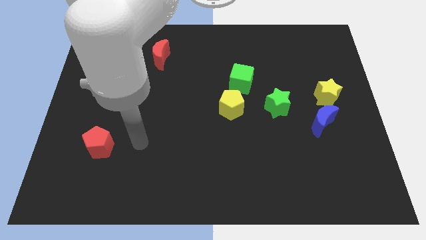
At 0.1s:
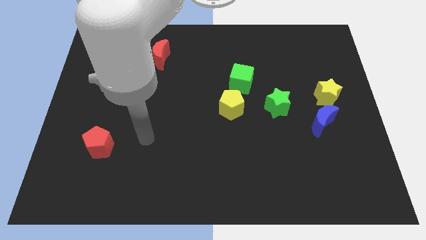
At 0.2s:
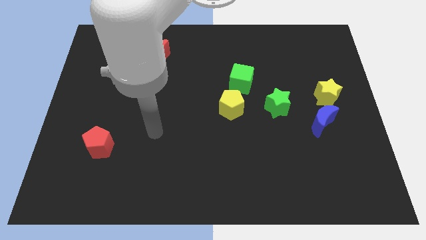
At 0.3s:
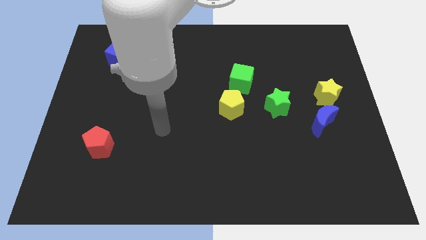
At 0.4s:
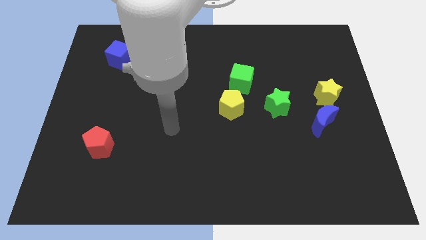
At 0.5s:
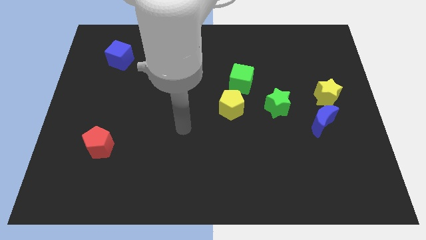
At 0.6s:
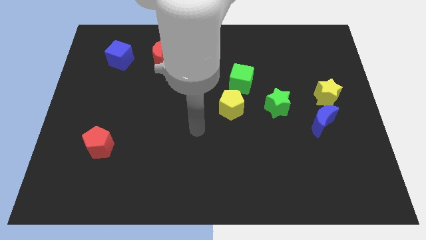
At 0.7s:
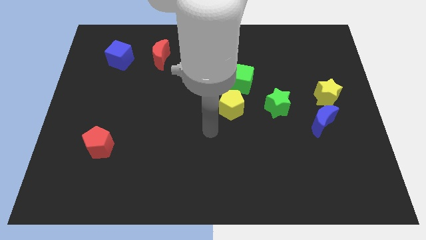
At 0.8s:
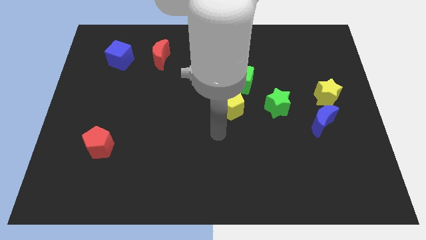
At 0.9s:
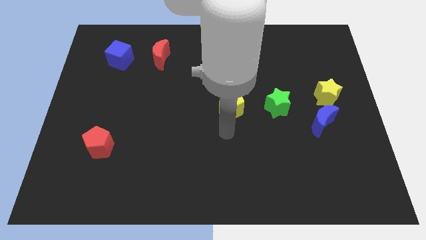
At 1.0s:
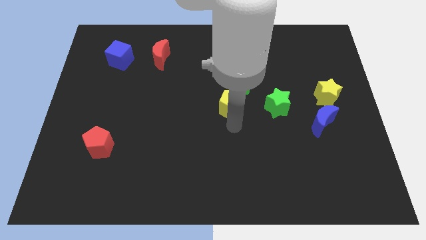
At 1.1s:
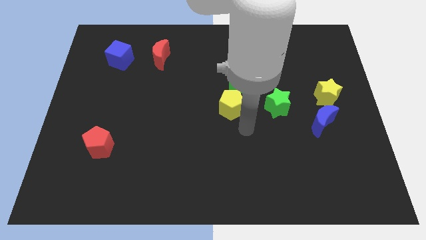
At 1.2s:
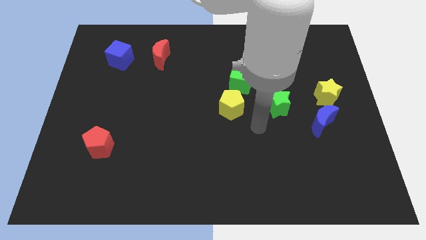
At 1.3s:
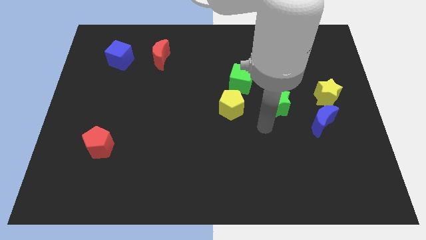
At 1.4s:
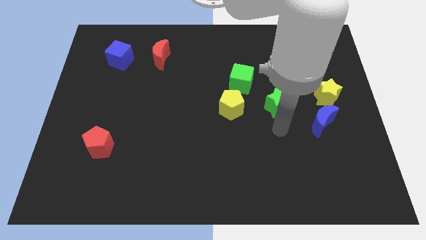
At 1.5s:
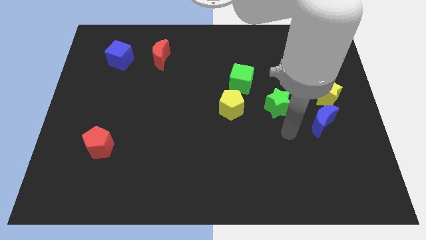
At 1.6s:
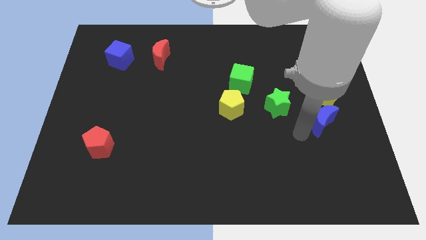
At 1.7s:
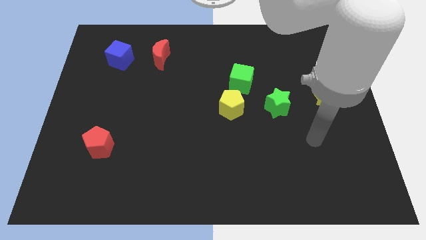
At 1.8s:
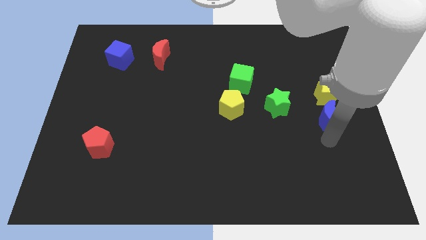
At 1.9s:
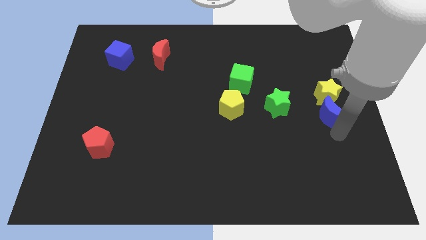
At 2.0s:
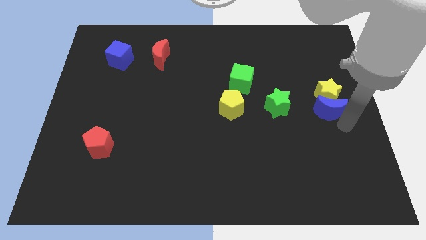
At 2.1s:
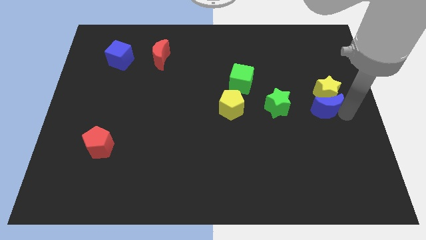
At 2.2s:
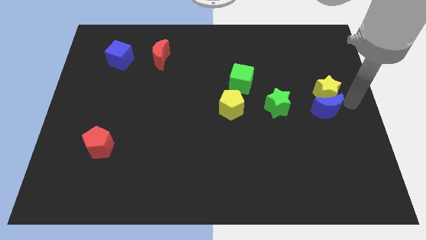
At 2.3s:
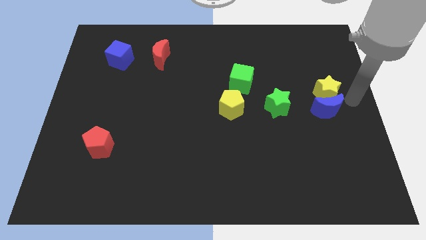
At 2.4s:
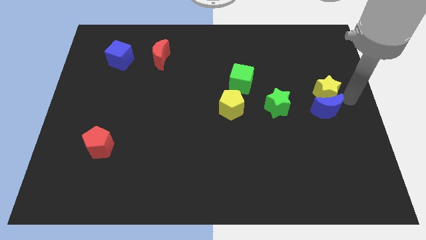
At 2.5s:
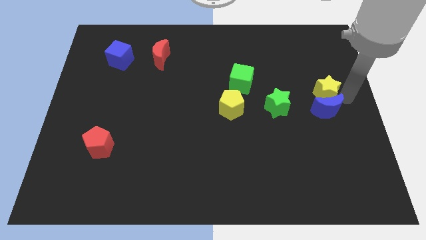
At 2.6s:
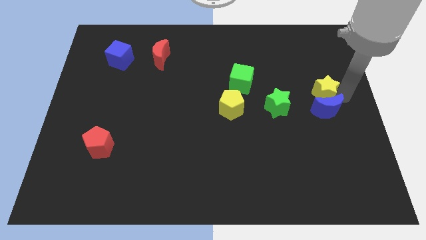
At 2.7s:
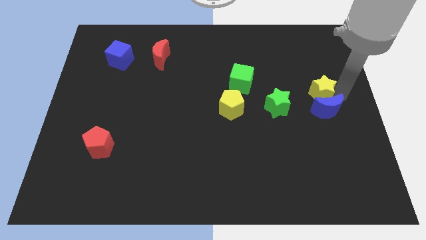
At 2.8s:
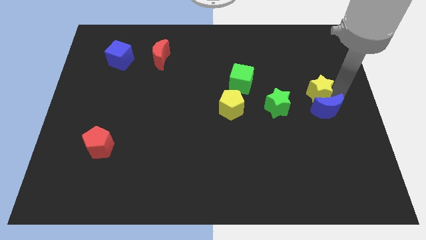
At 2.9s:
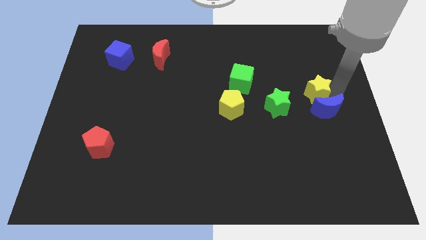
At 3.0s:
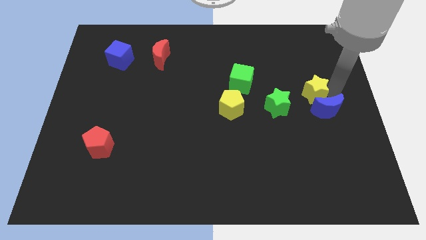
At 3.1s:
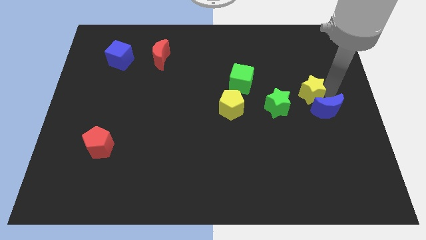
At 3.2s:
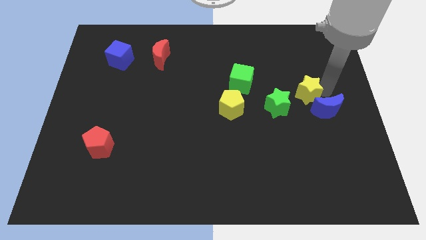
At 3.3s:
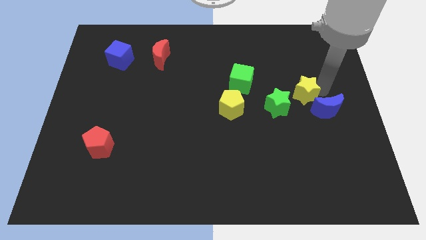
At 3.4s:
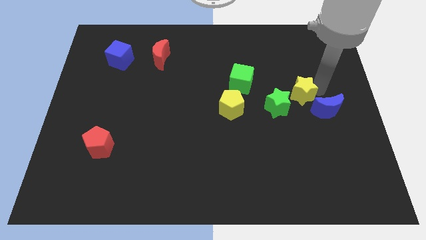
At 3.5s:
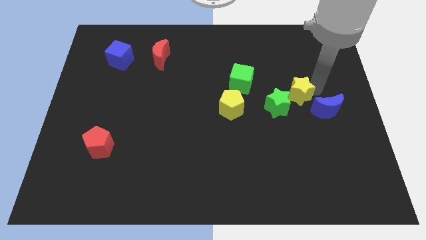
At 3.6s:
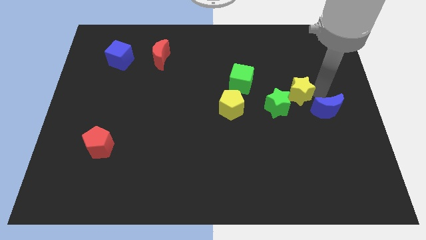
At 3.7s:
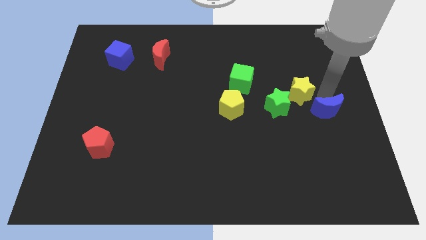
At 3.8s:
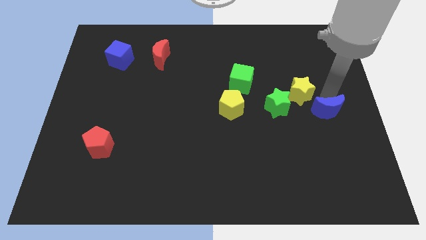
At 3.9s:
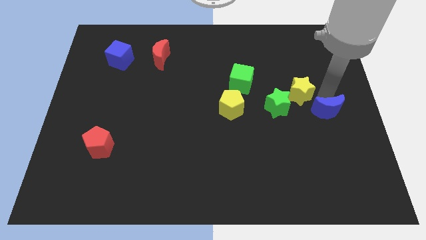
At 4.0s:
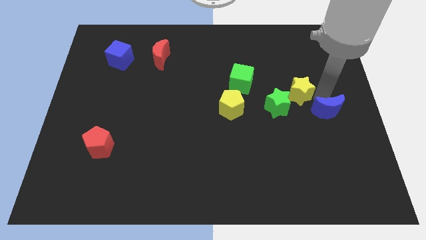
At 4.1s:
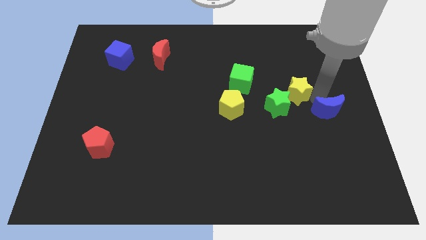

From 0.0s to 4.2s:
slightly move the yellow star to the left

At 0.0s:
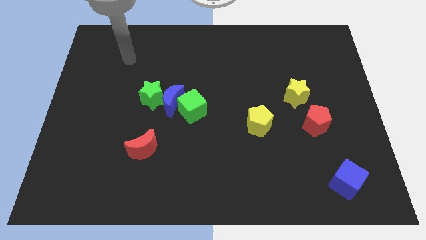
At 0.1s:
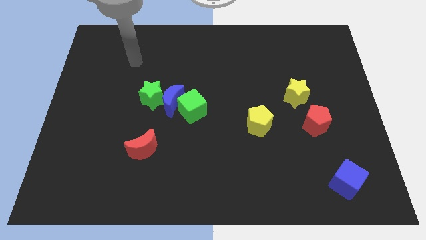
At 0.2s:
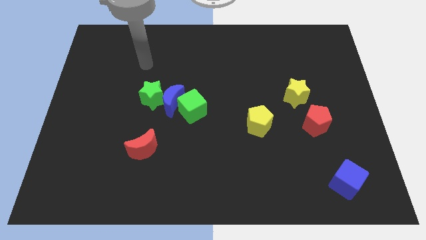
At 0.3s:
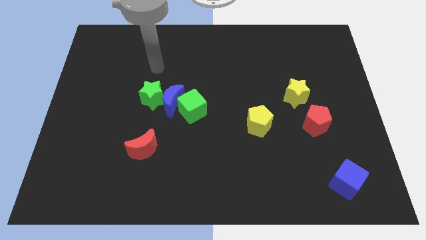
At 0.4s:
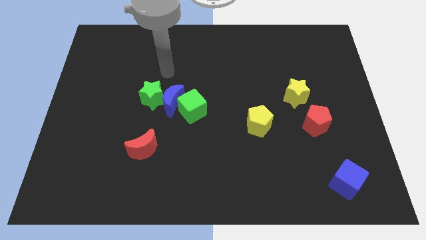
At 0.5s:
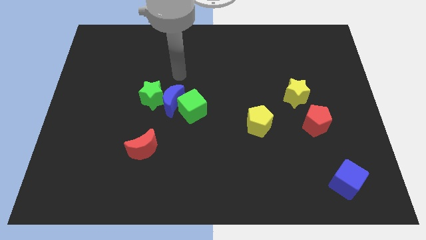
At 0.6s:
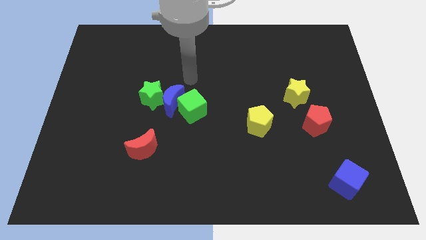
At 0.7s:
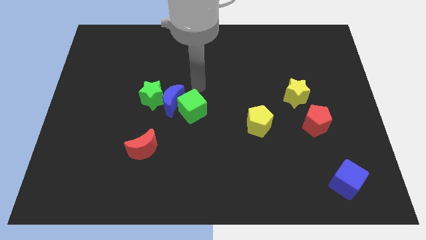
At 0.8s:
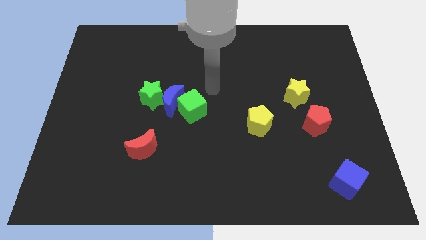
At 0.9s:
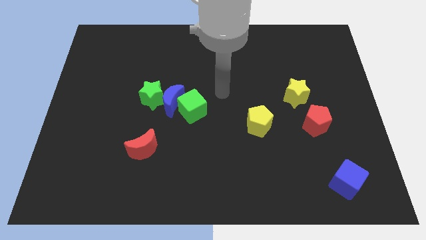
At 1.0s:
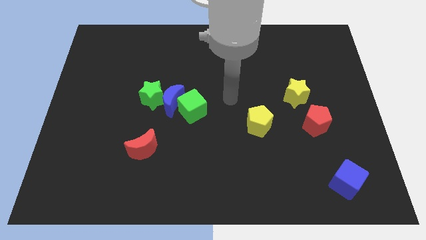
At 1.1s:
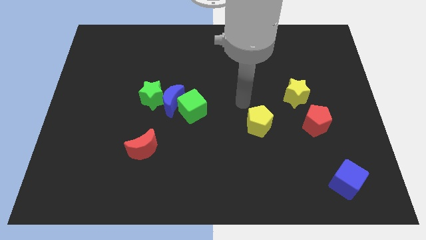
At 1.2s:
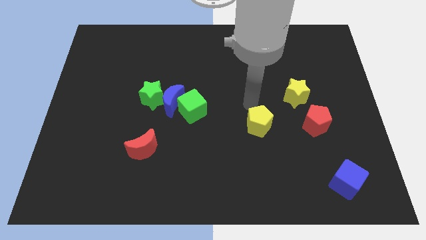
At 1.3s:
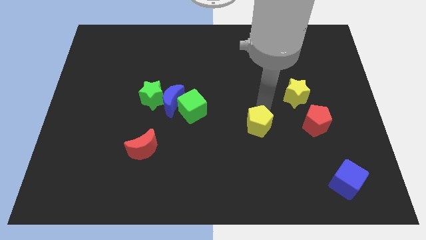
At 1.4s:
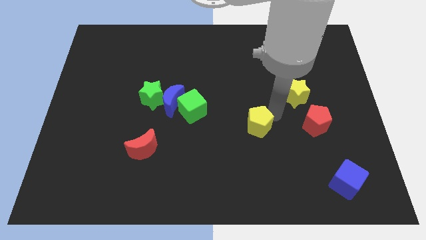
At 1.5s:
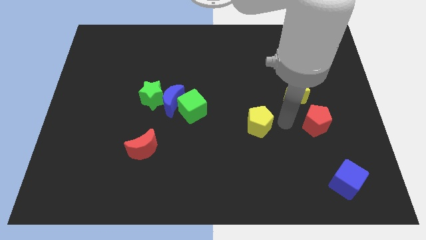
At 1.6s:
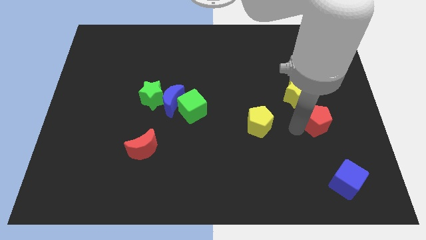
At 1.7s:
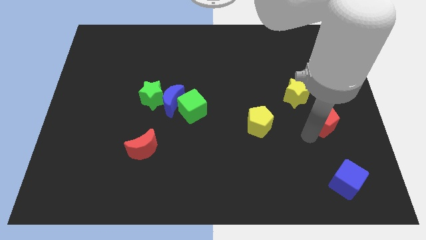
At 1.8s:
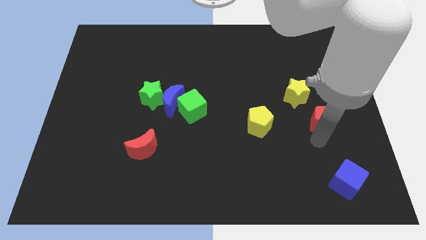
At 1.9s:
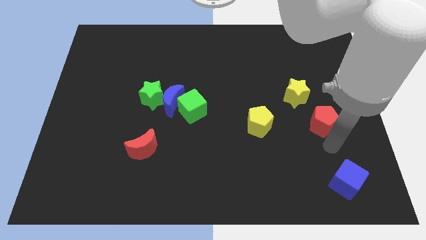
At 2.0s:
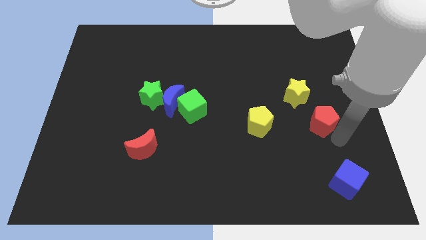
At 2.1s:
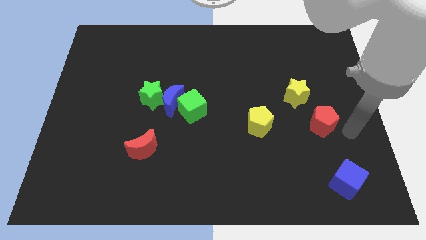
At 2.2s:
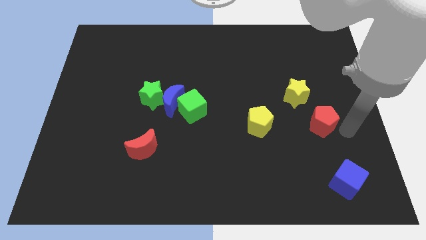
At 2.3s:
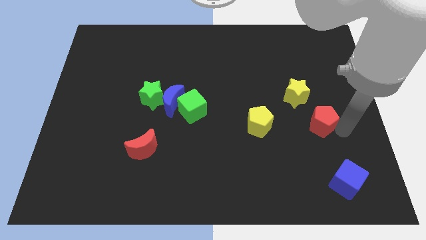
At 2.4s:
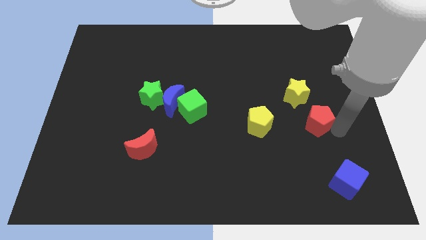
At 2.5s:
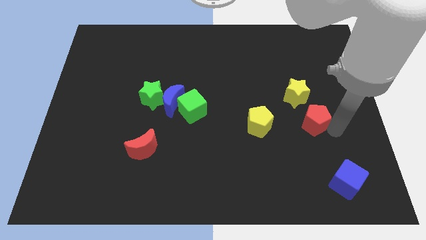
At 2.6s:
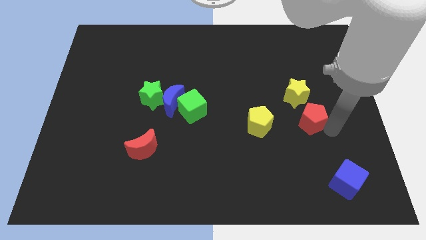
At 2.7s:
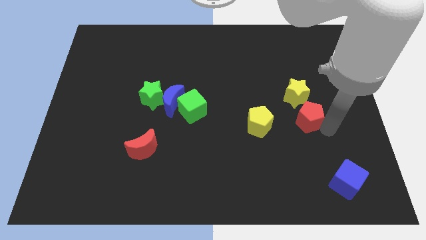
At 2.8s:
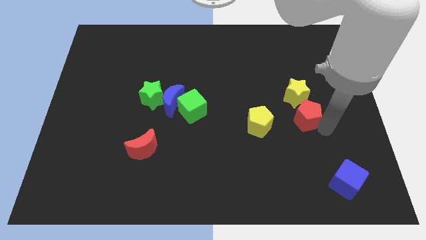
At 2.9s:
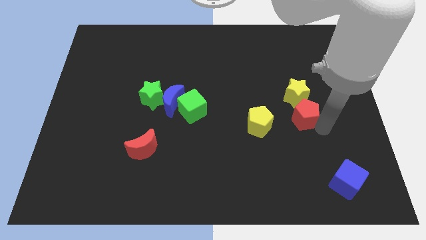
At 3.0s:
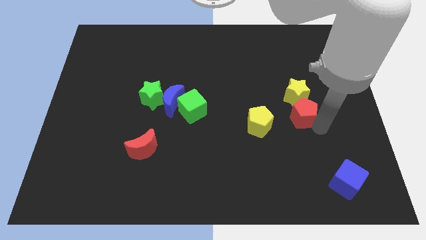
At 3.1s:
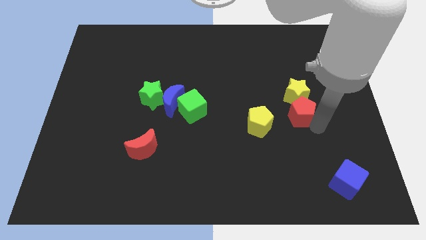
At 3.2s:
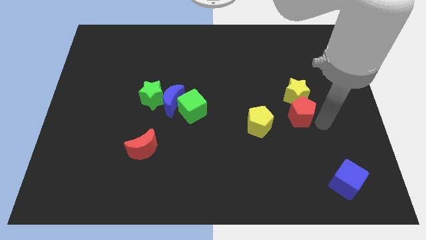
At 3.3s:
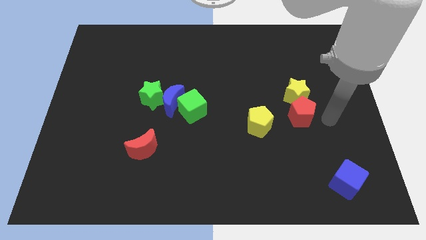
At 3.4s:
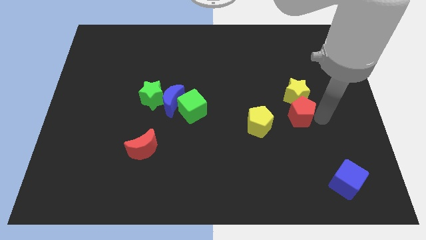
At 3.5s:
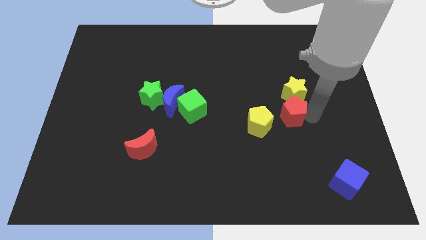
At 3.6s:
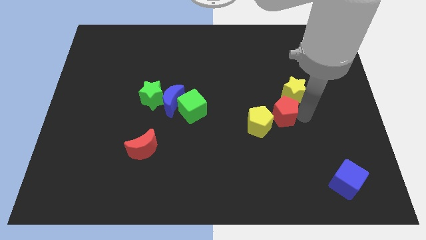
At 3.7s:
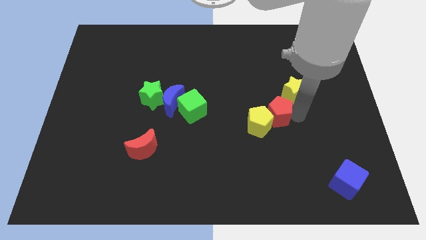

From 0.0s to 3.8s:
push the red pentagon left a little

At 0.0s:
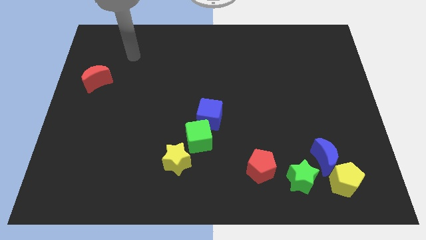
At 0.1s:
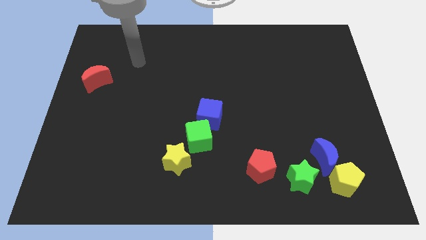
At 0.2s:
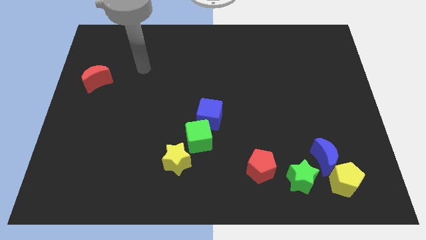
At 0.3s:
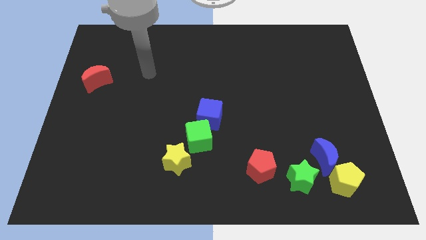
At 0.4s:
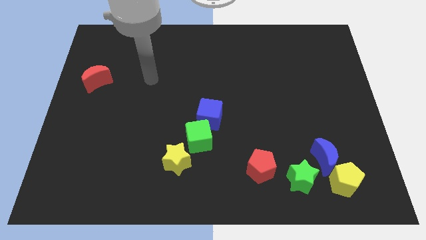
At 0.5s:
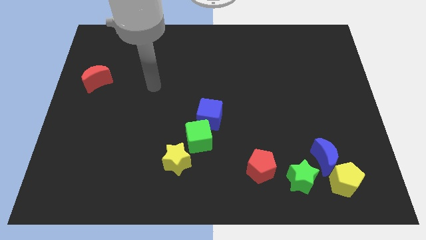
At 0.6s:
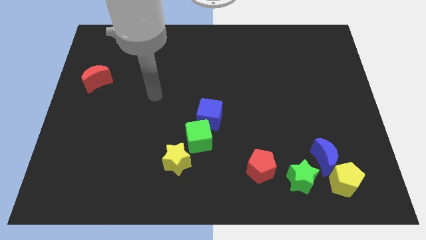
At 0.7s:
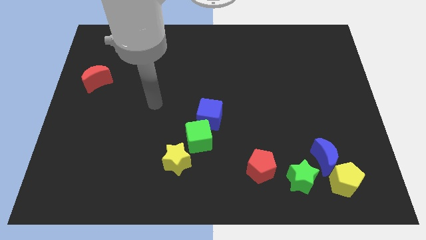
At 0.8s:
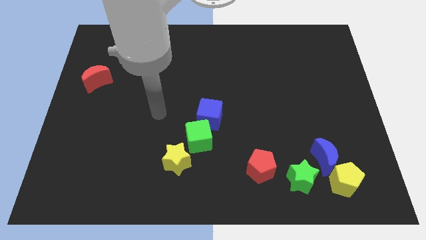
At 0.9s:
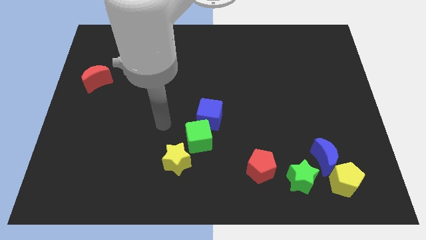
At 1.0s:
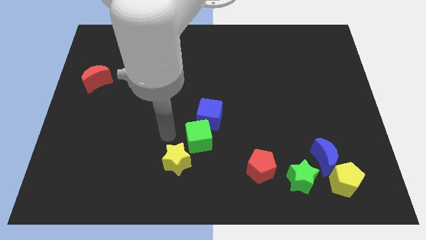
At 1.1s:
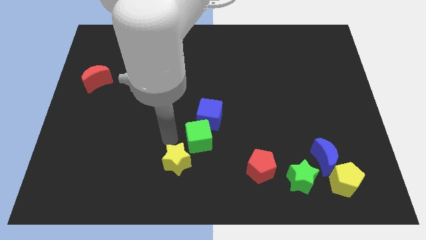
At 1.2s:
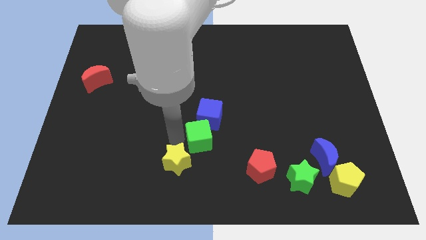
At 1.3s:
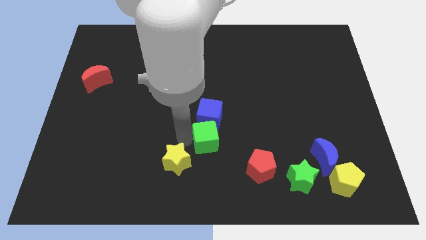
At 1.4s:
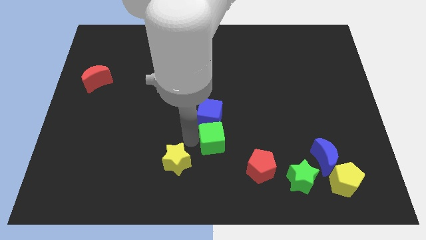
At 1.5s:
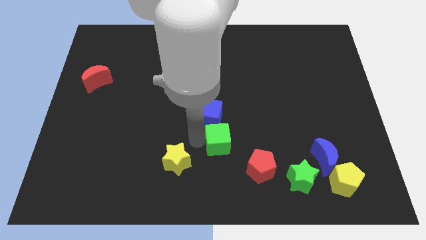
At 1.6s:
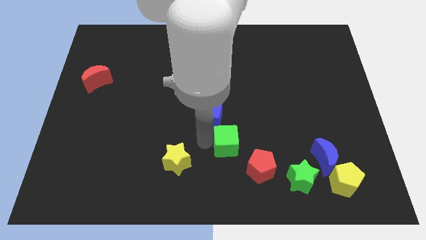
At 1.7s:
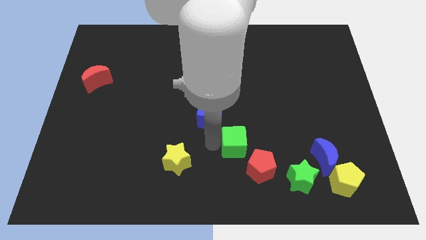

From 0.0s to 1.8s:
slide the green cube to the right a bit
